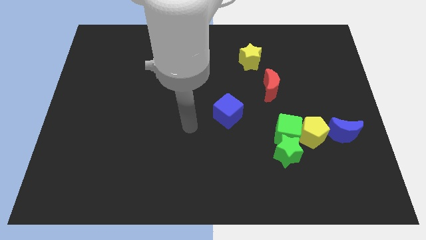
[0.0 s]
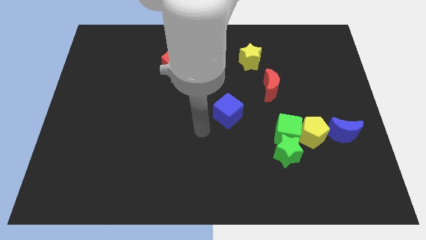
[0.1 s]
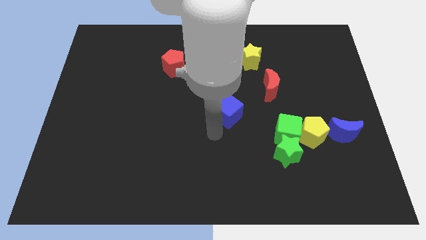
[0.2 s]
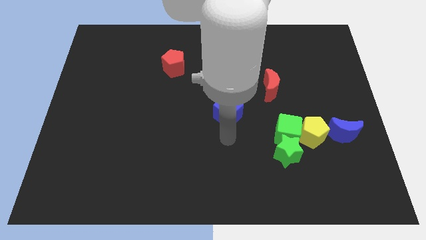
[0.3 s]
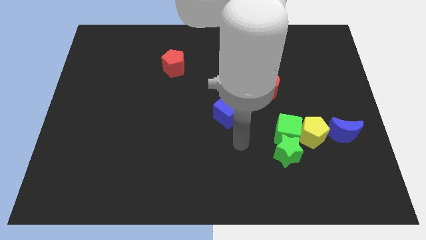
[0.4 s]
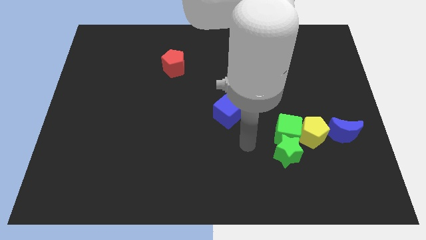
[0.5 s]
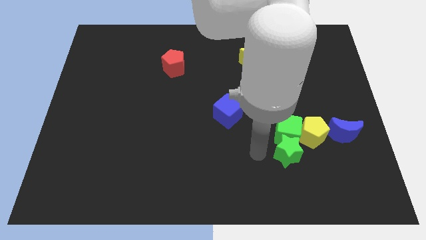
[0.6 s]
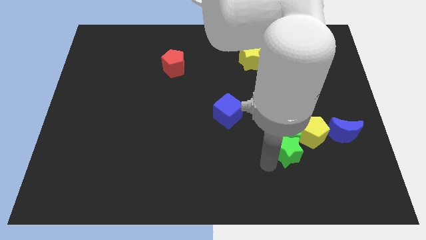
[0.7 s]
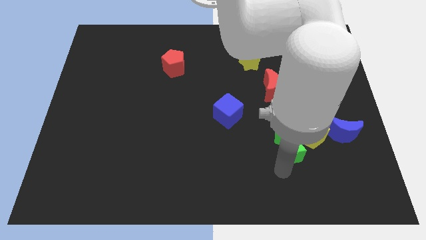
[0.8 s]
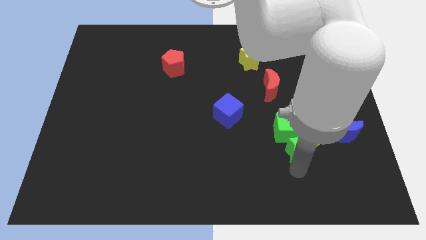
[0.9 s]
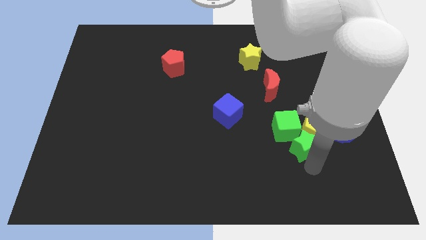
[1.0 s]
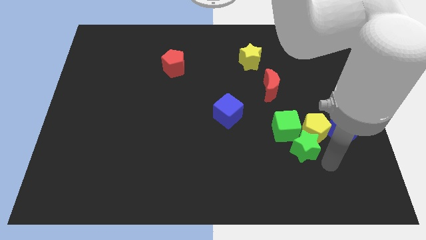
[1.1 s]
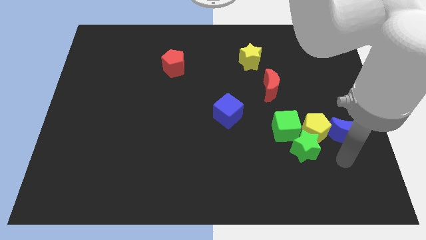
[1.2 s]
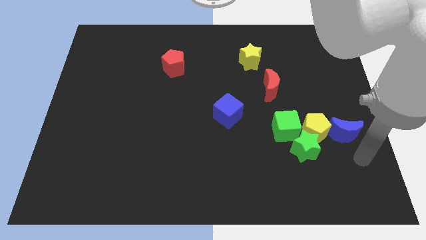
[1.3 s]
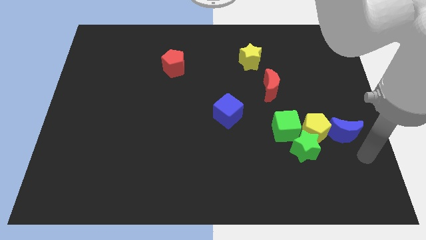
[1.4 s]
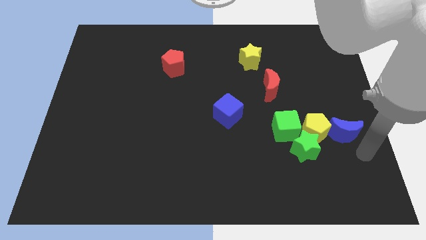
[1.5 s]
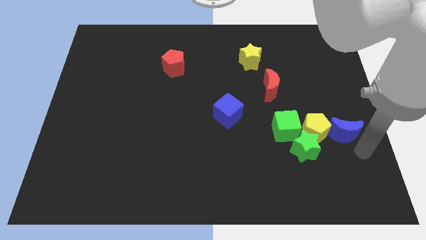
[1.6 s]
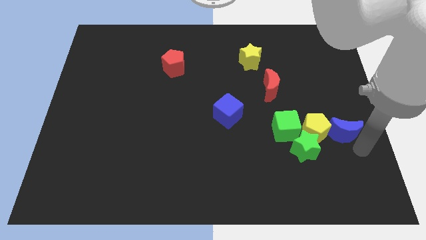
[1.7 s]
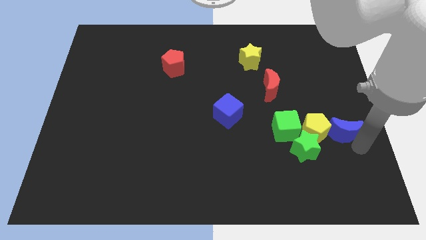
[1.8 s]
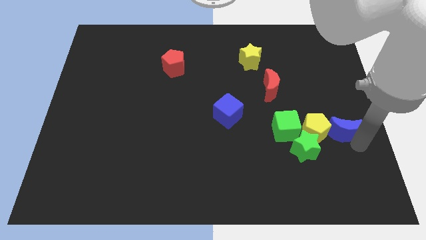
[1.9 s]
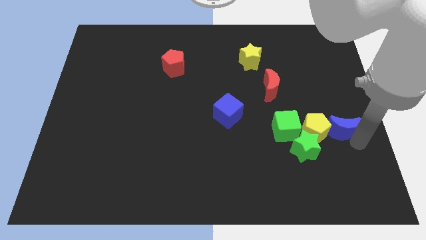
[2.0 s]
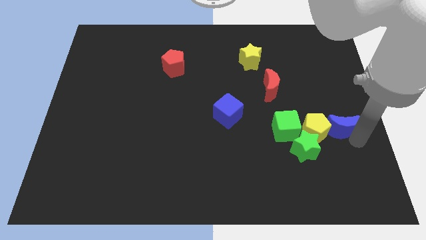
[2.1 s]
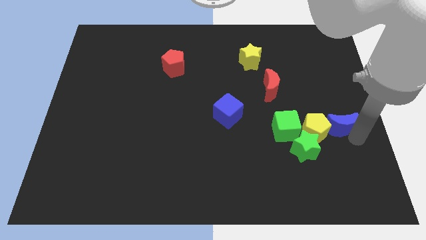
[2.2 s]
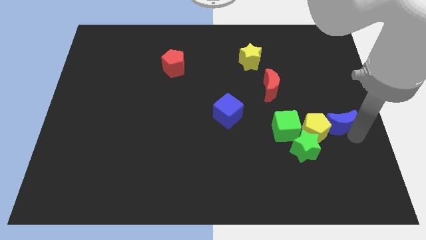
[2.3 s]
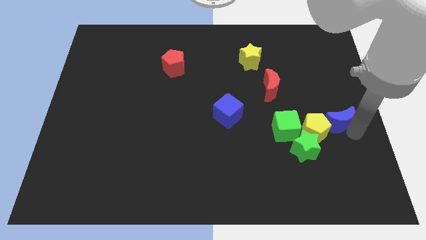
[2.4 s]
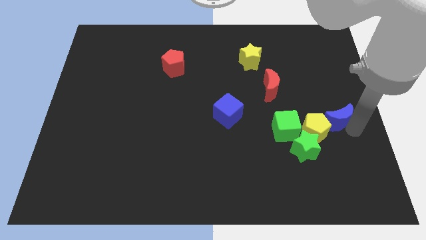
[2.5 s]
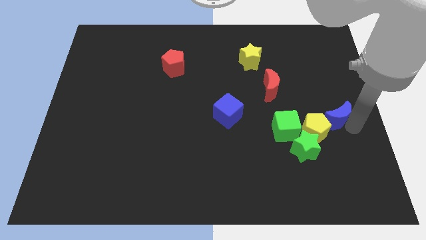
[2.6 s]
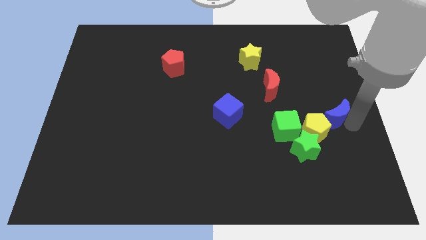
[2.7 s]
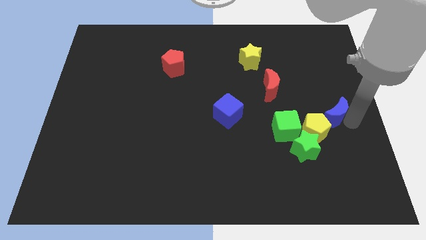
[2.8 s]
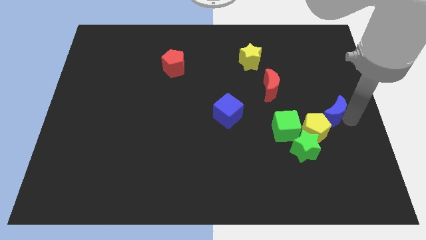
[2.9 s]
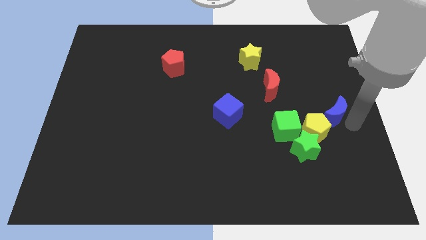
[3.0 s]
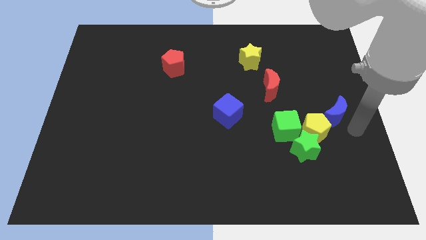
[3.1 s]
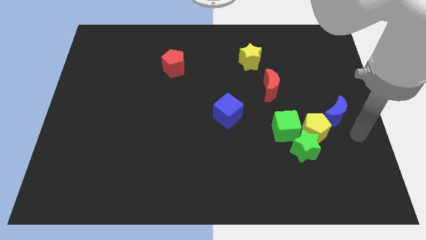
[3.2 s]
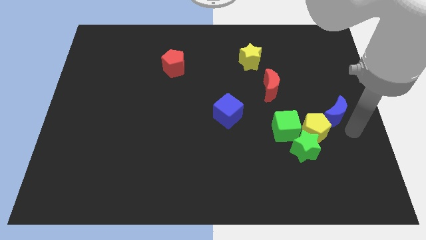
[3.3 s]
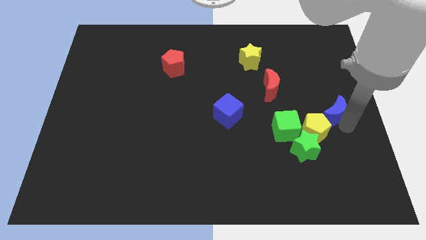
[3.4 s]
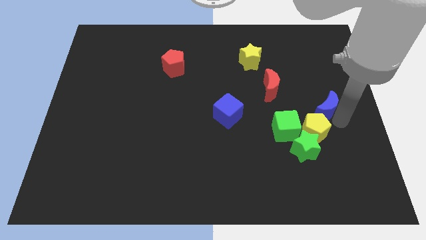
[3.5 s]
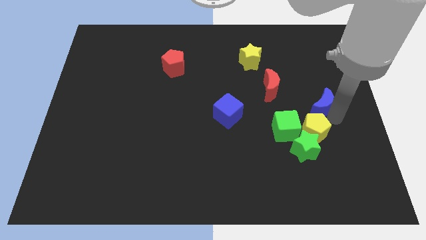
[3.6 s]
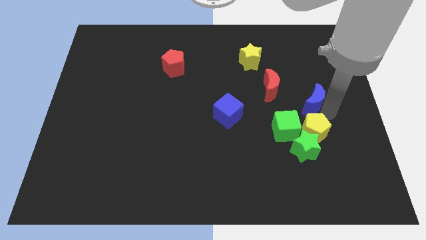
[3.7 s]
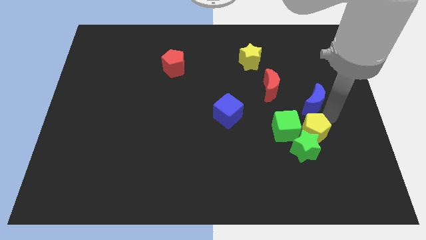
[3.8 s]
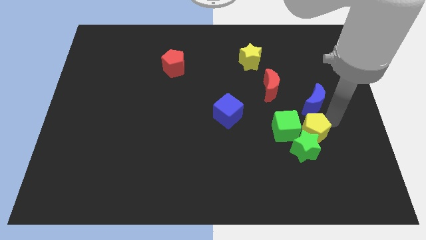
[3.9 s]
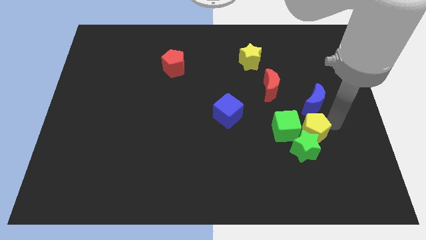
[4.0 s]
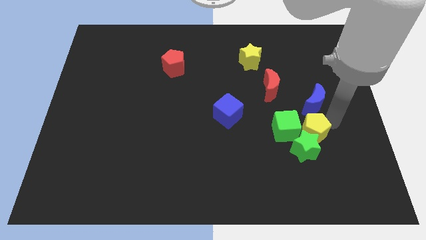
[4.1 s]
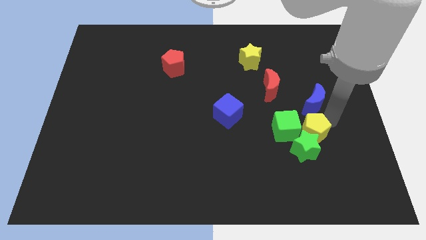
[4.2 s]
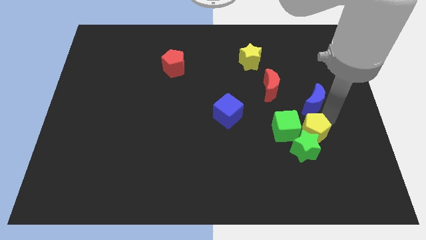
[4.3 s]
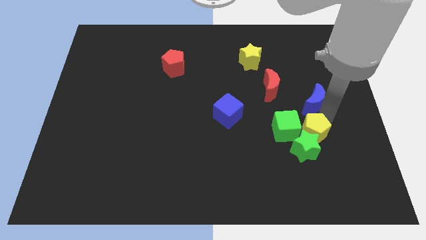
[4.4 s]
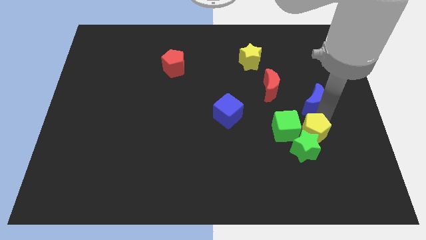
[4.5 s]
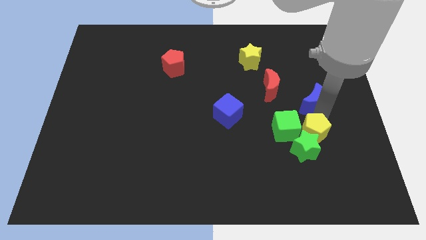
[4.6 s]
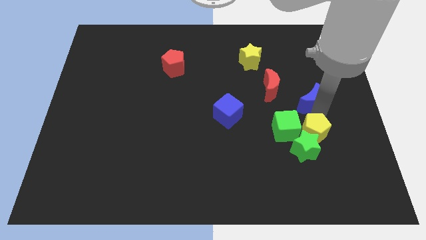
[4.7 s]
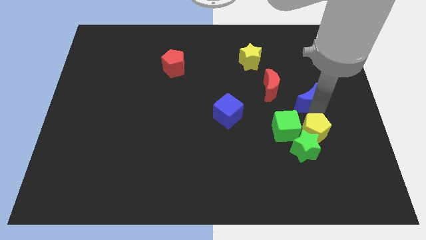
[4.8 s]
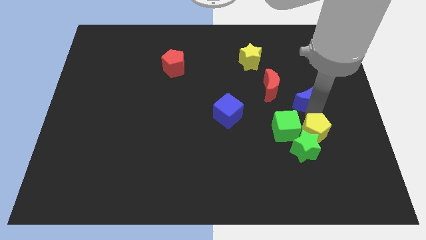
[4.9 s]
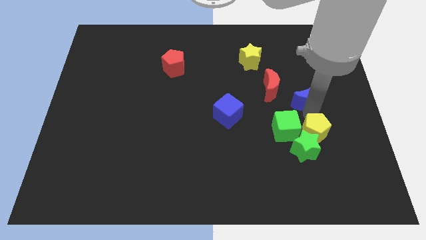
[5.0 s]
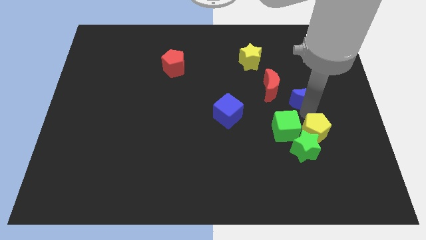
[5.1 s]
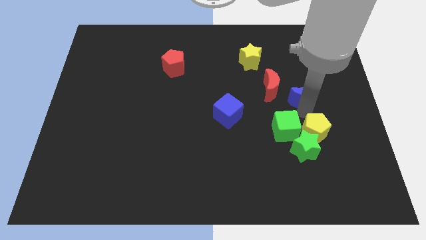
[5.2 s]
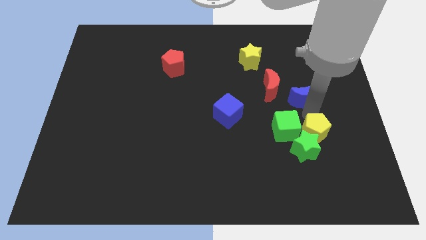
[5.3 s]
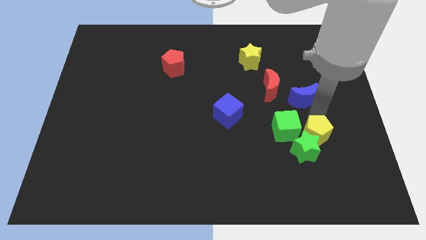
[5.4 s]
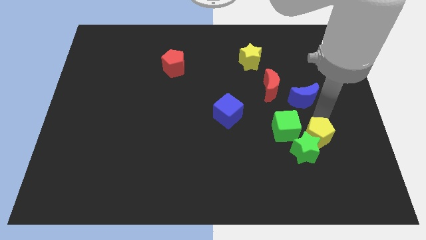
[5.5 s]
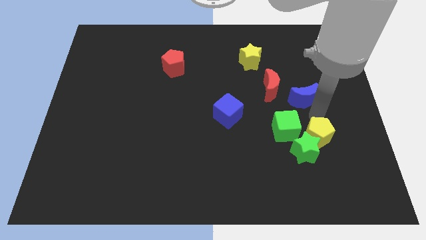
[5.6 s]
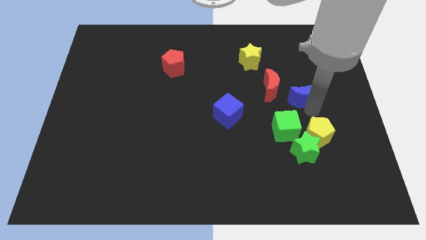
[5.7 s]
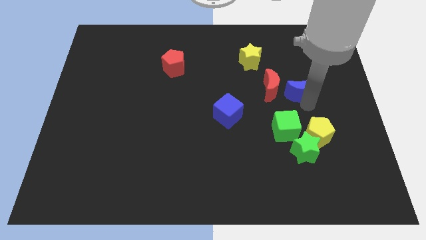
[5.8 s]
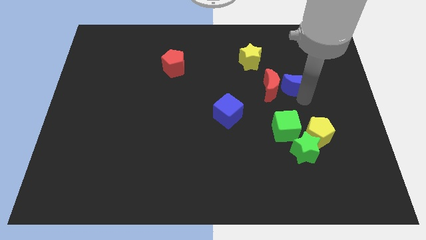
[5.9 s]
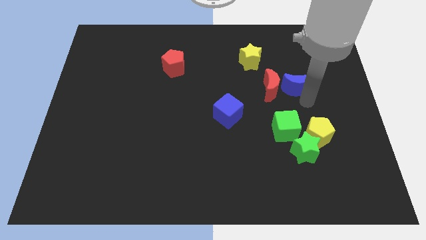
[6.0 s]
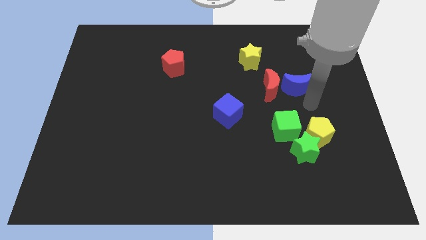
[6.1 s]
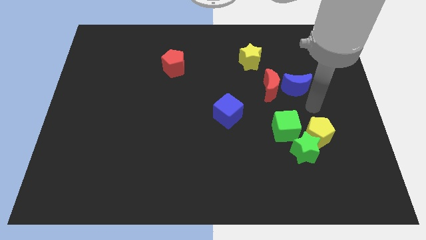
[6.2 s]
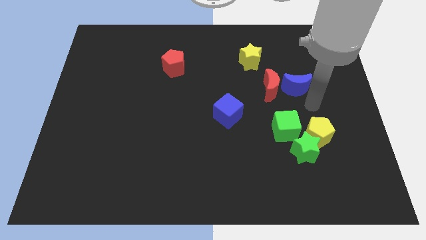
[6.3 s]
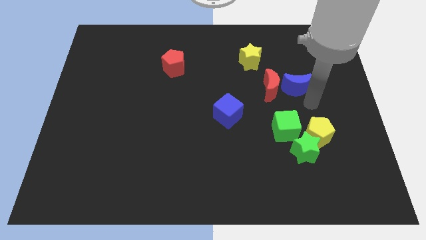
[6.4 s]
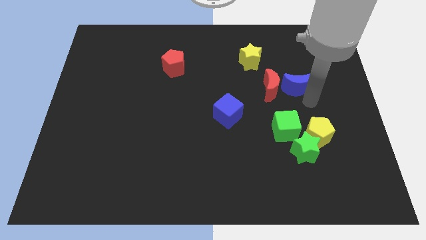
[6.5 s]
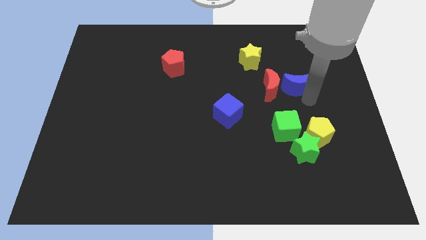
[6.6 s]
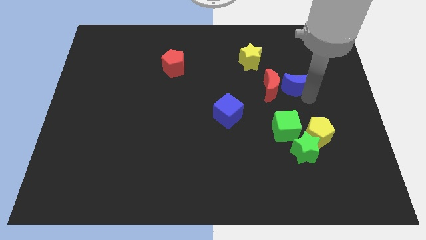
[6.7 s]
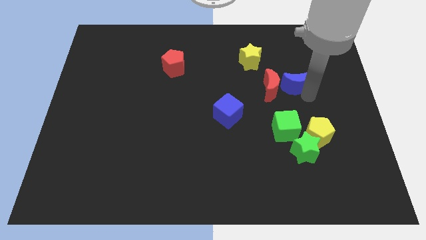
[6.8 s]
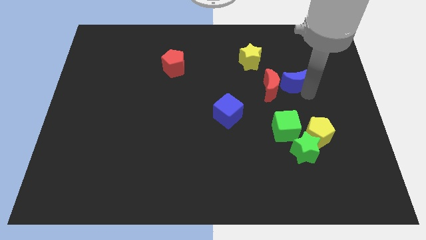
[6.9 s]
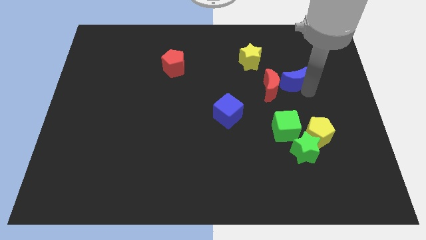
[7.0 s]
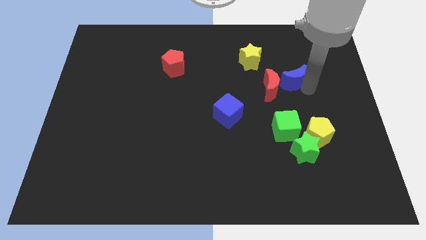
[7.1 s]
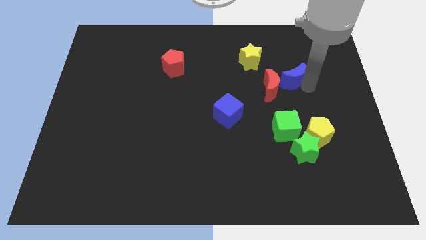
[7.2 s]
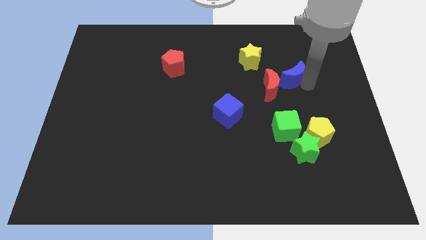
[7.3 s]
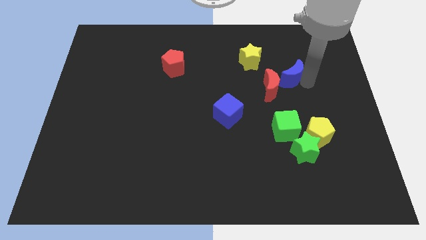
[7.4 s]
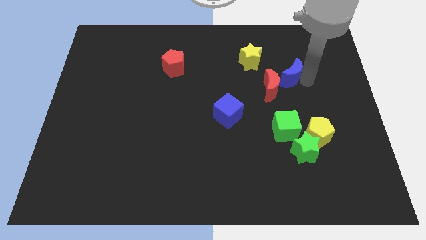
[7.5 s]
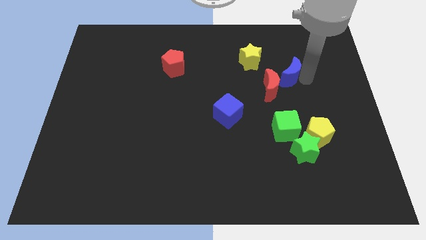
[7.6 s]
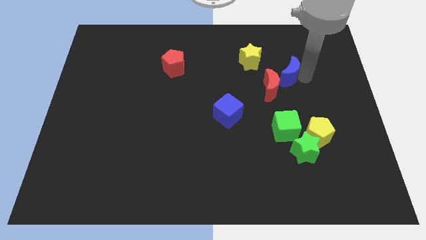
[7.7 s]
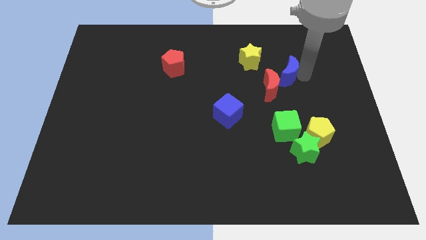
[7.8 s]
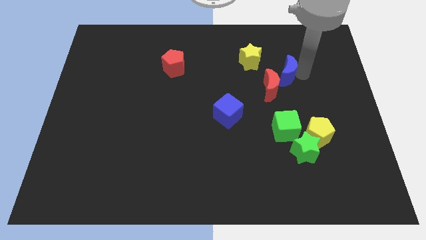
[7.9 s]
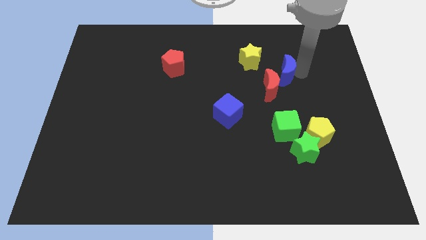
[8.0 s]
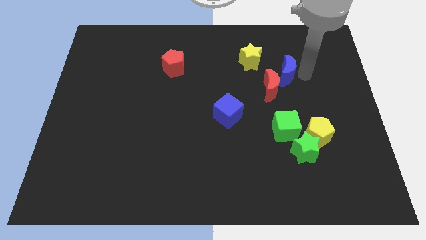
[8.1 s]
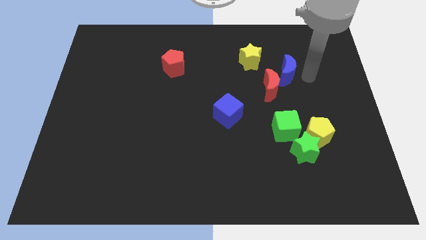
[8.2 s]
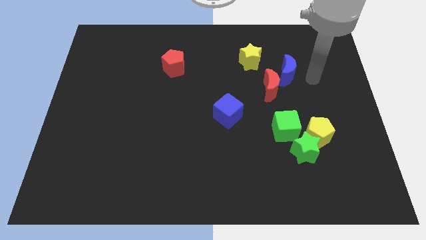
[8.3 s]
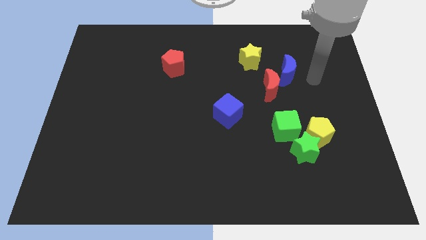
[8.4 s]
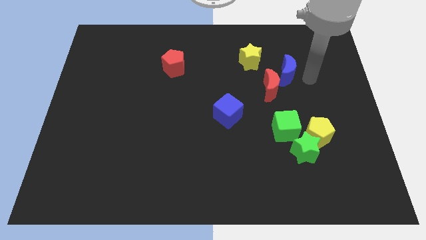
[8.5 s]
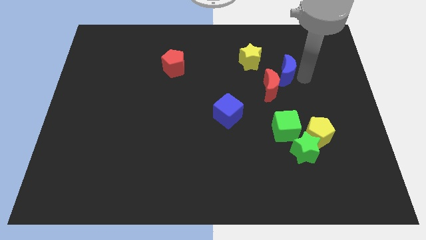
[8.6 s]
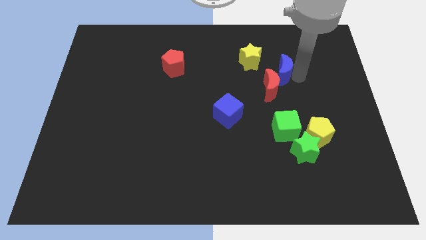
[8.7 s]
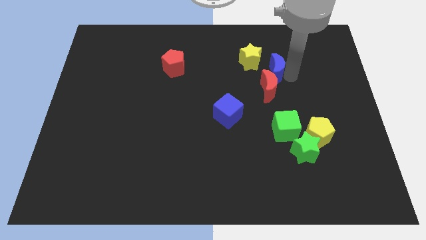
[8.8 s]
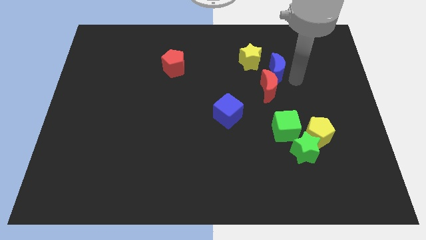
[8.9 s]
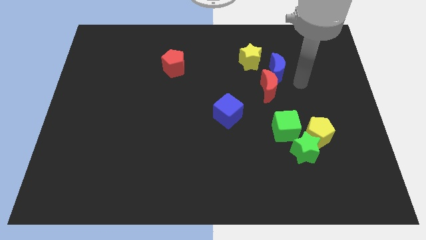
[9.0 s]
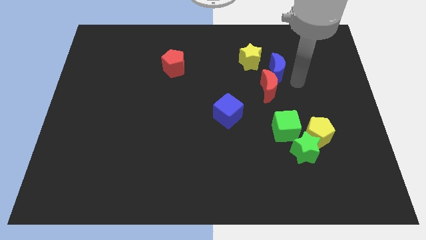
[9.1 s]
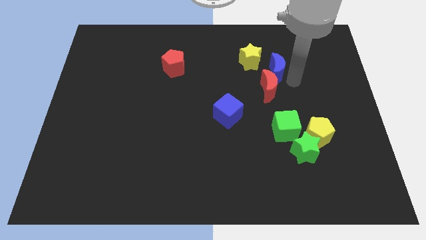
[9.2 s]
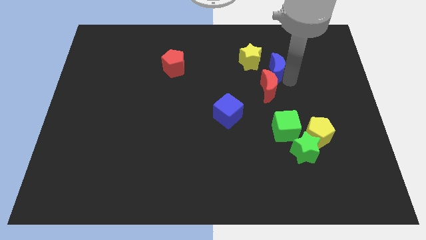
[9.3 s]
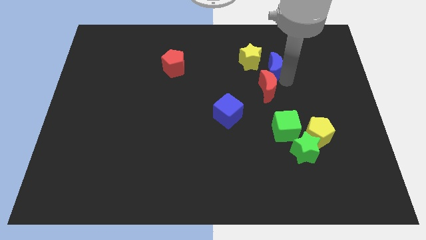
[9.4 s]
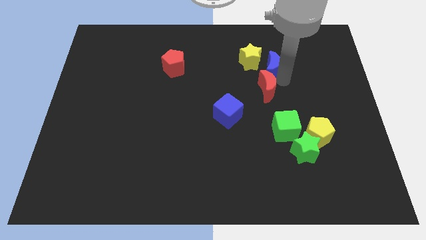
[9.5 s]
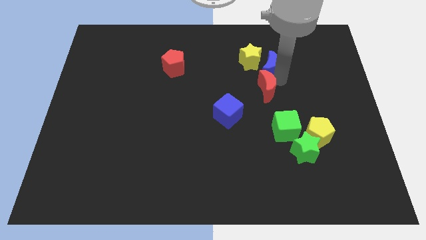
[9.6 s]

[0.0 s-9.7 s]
slide the blue moon close to the yellow star
